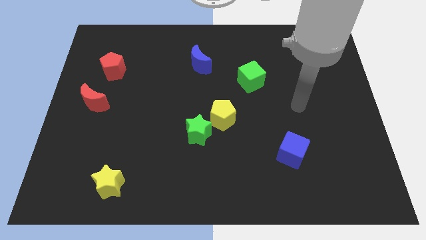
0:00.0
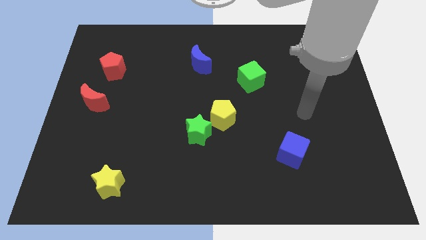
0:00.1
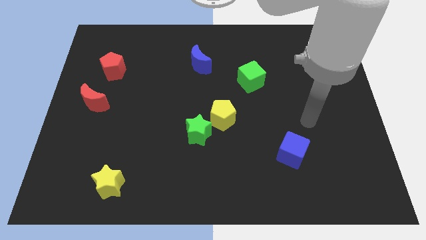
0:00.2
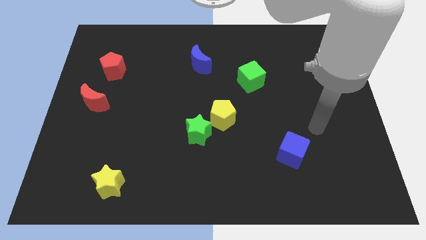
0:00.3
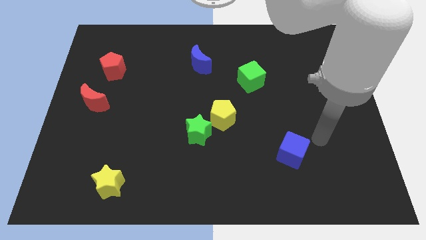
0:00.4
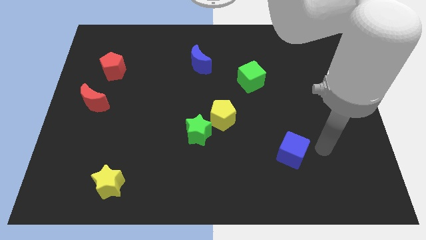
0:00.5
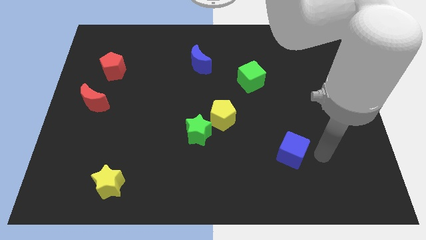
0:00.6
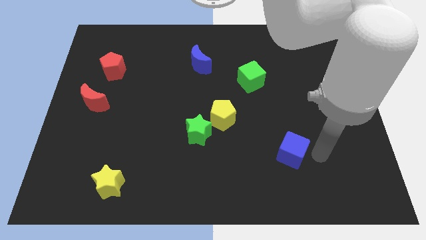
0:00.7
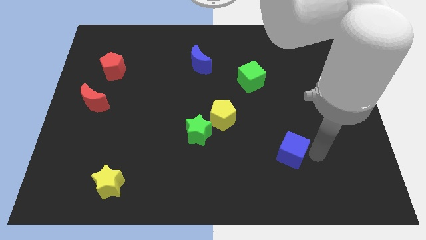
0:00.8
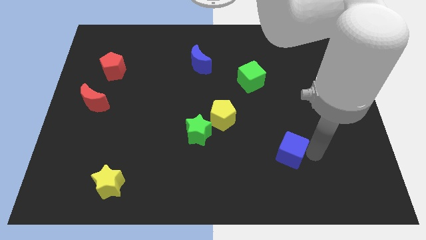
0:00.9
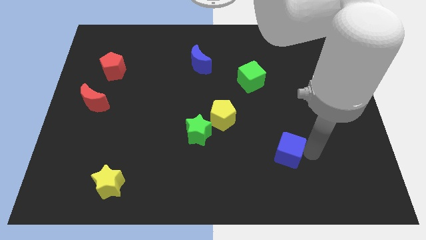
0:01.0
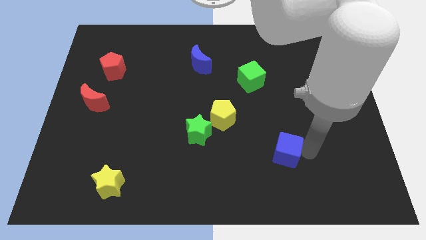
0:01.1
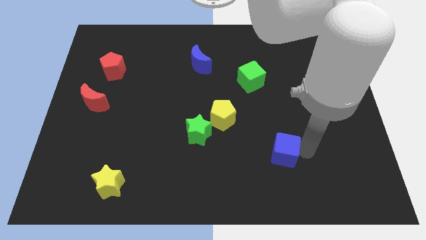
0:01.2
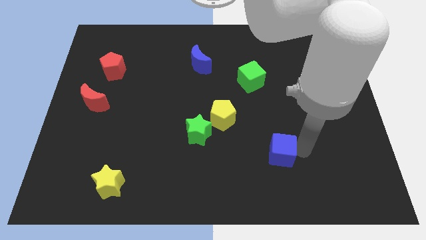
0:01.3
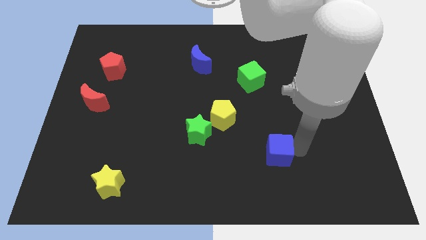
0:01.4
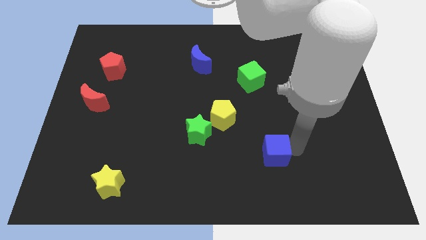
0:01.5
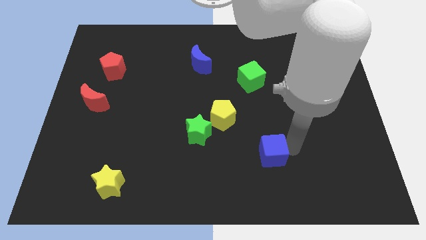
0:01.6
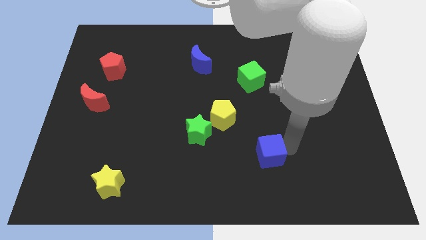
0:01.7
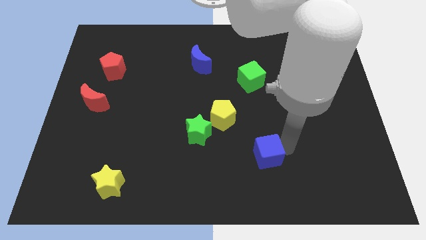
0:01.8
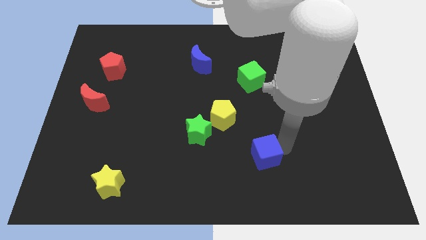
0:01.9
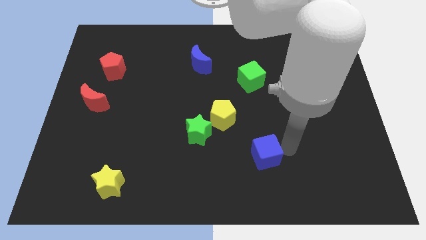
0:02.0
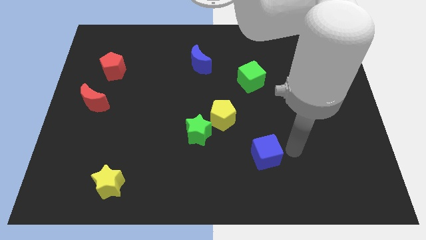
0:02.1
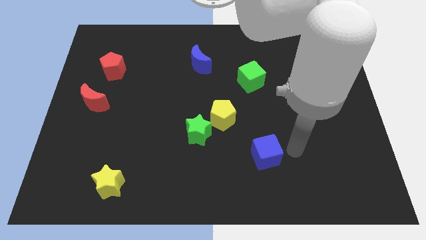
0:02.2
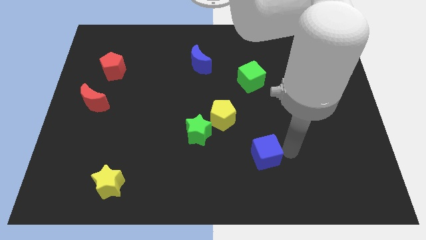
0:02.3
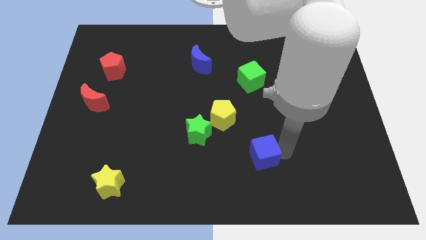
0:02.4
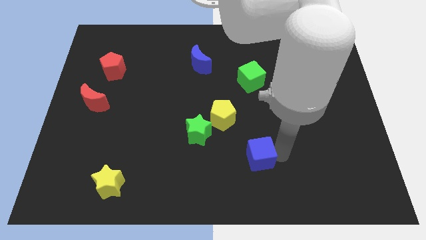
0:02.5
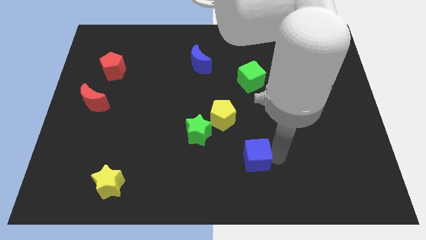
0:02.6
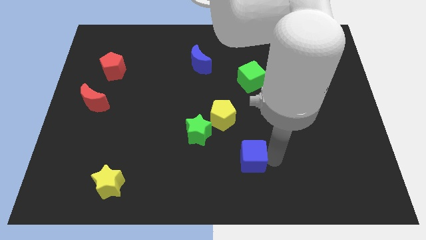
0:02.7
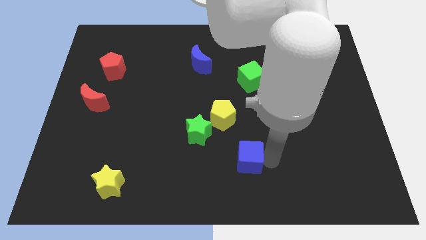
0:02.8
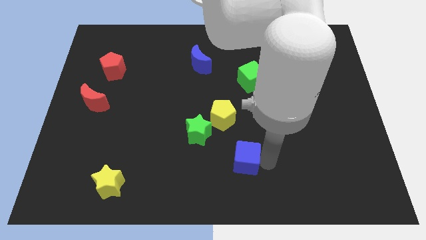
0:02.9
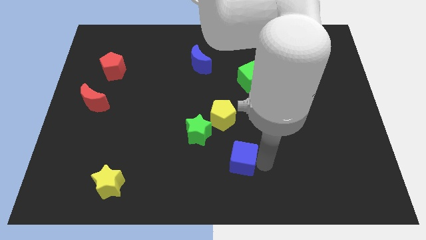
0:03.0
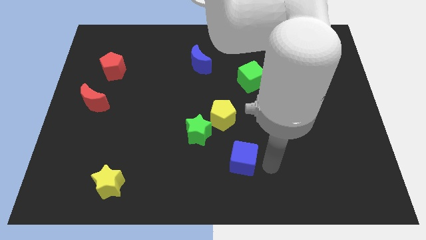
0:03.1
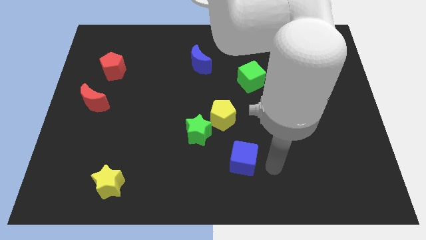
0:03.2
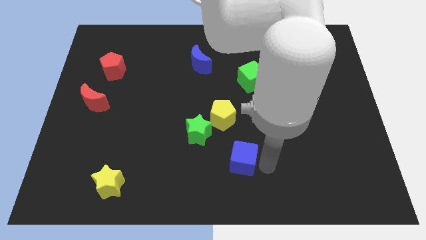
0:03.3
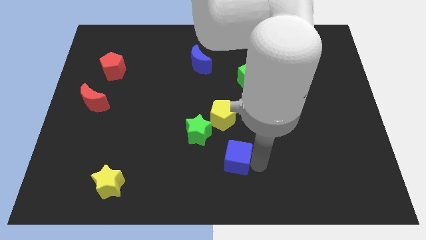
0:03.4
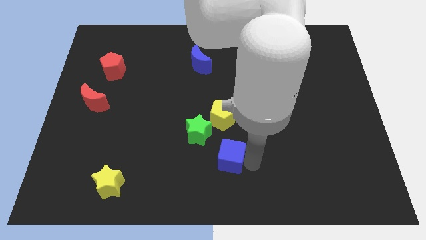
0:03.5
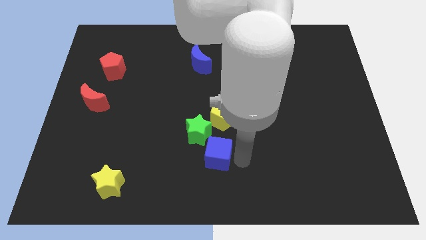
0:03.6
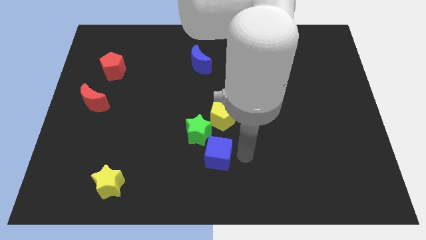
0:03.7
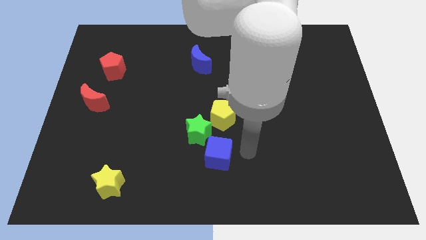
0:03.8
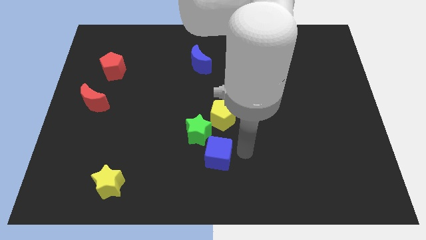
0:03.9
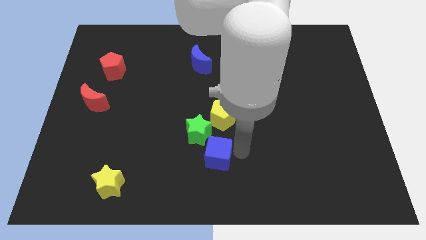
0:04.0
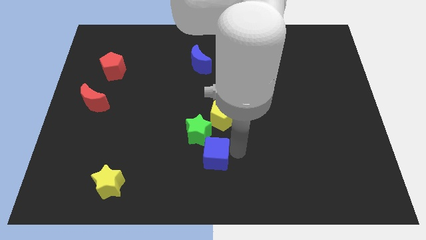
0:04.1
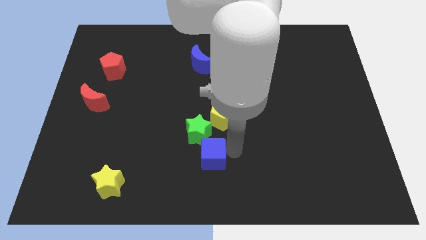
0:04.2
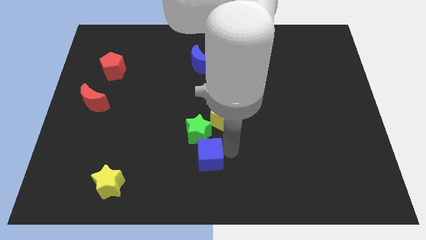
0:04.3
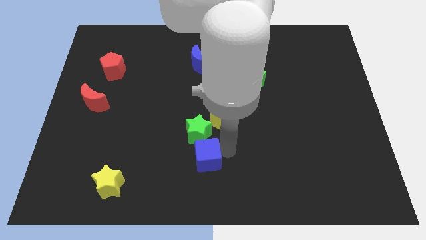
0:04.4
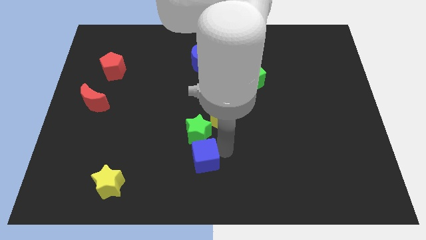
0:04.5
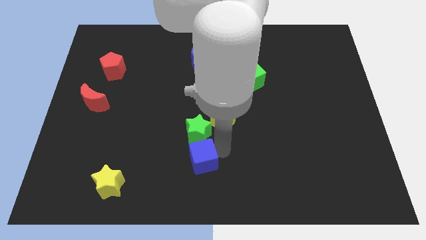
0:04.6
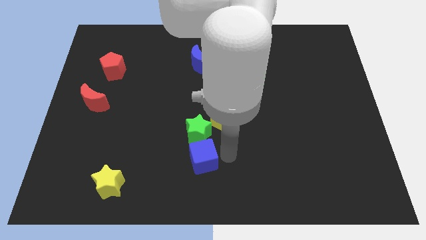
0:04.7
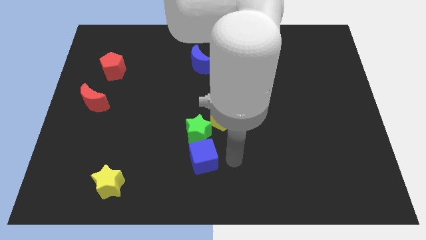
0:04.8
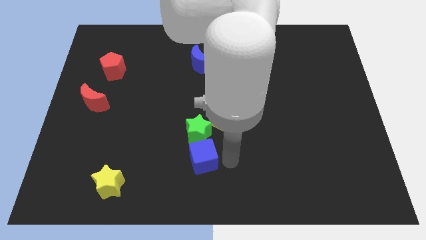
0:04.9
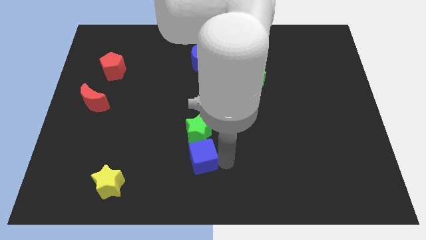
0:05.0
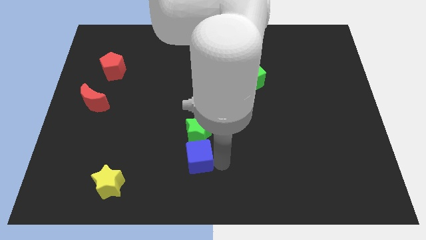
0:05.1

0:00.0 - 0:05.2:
slide the blue cube left

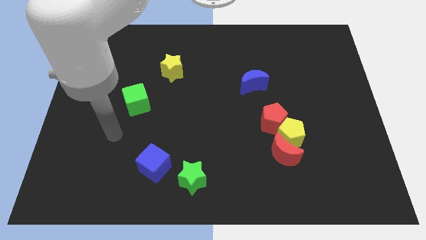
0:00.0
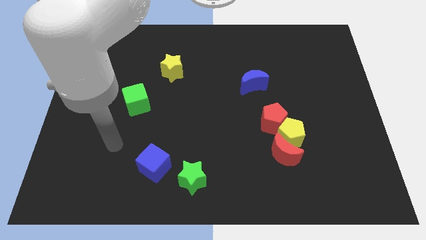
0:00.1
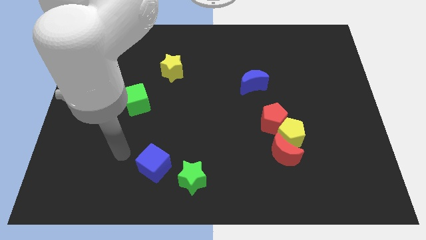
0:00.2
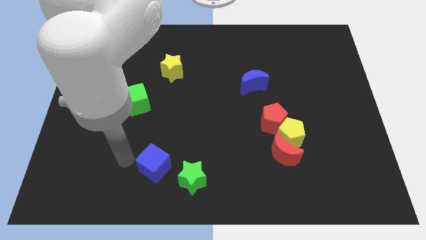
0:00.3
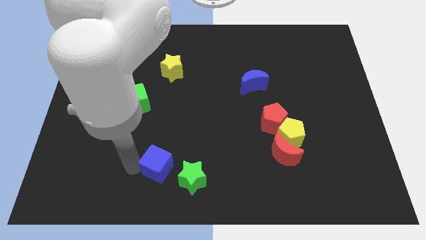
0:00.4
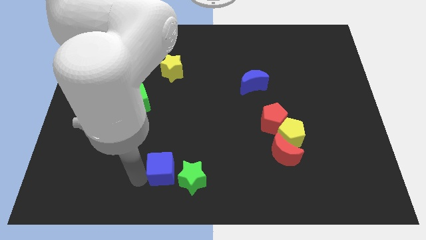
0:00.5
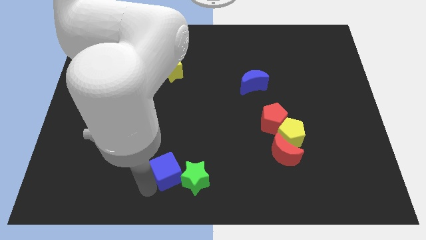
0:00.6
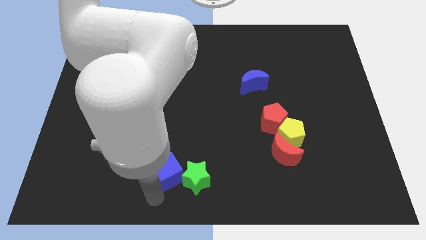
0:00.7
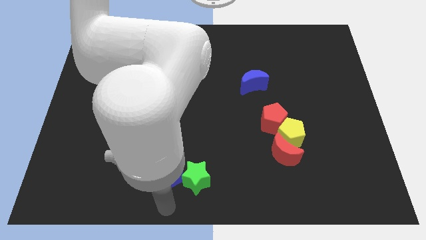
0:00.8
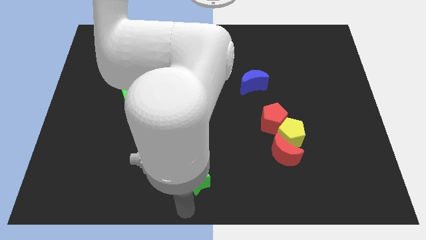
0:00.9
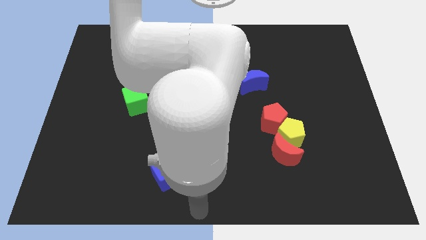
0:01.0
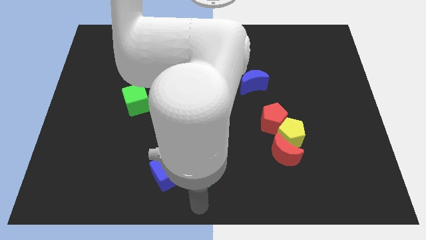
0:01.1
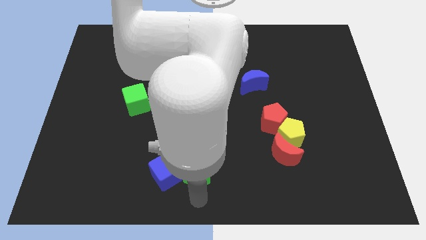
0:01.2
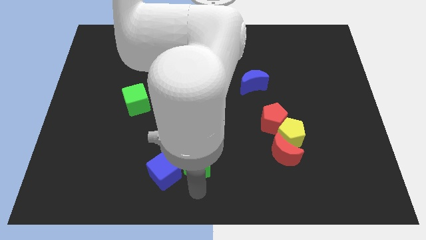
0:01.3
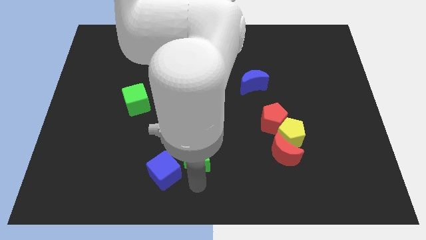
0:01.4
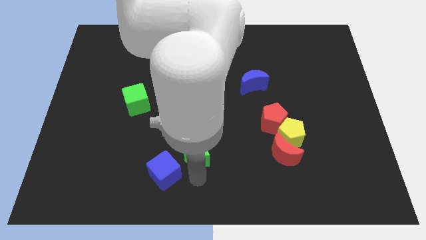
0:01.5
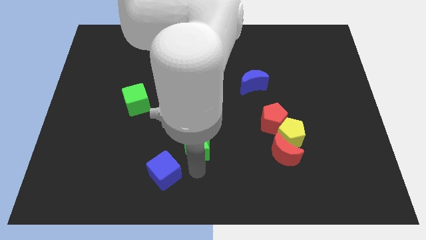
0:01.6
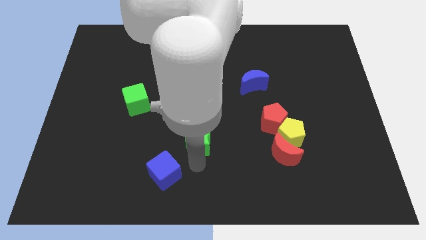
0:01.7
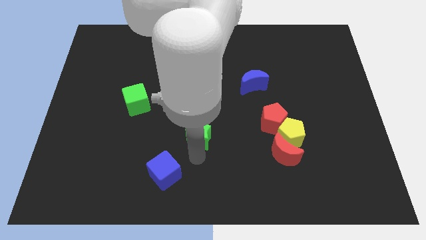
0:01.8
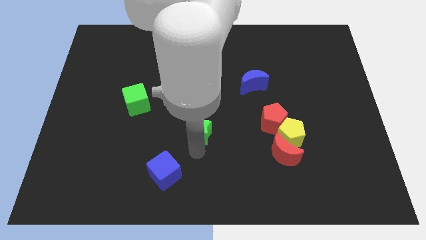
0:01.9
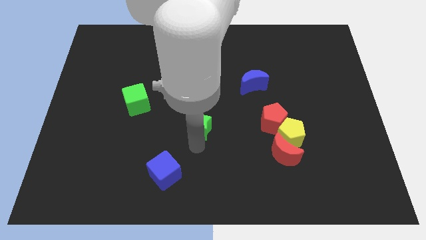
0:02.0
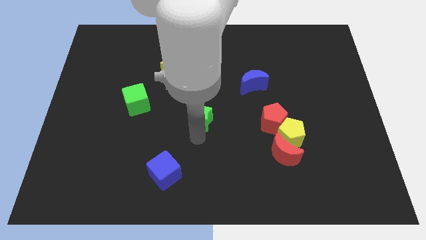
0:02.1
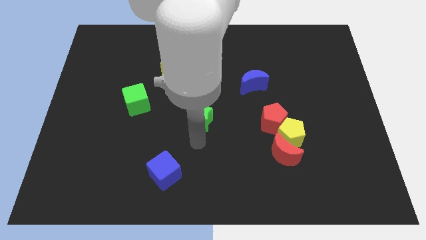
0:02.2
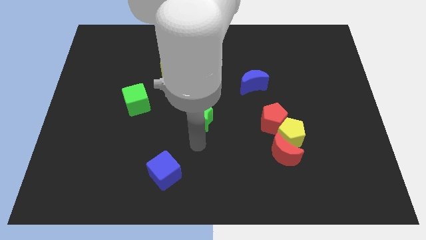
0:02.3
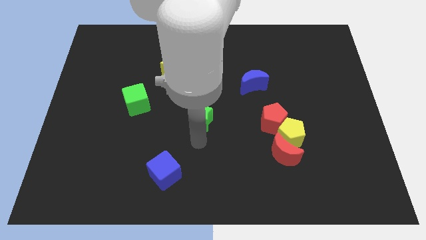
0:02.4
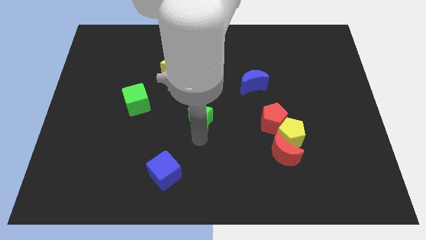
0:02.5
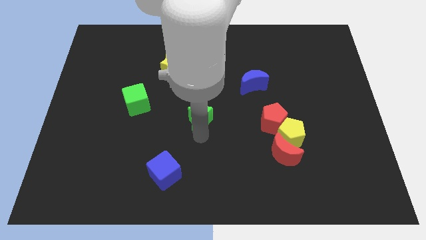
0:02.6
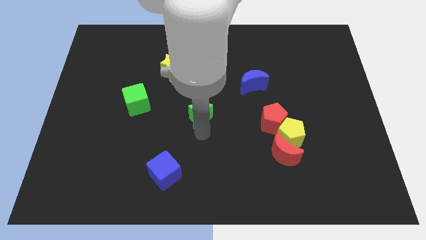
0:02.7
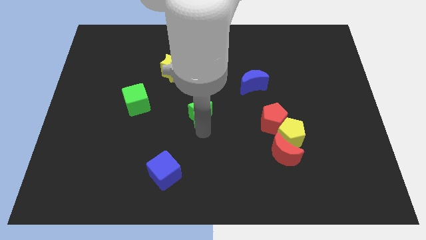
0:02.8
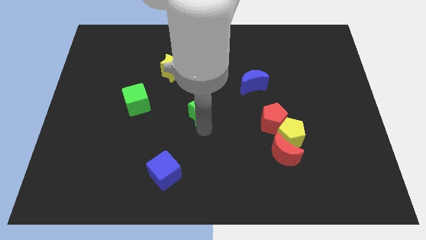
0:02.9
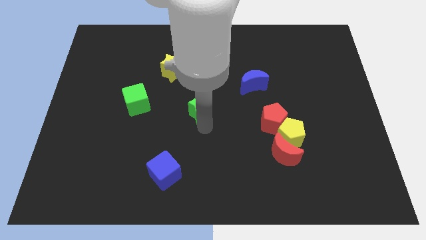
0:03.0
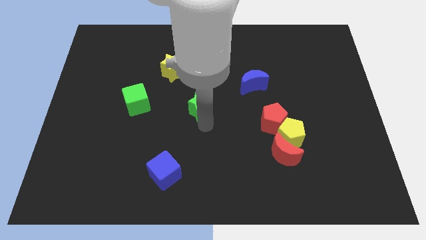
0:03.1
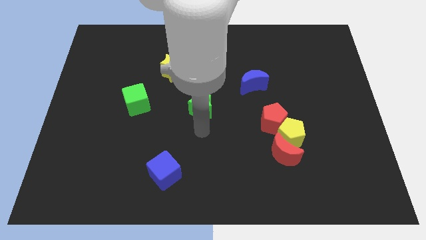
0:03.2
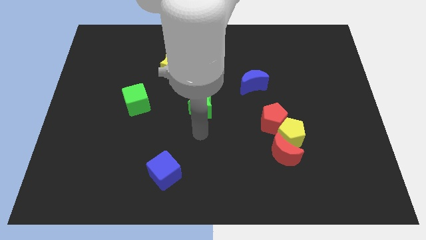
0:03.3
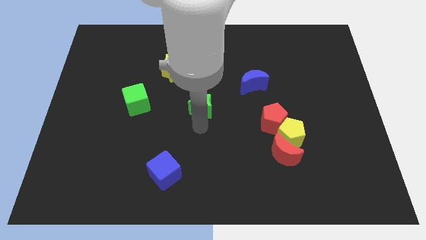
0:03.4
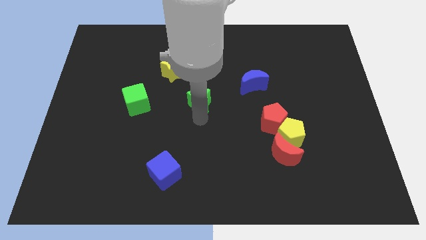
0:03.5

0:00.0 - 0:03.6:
slide the green star upwards
